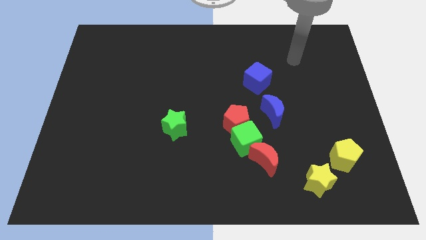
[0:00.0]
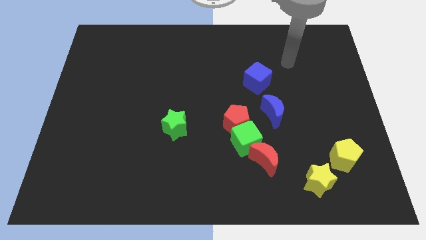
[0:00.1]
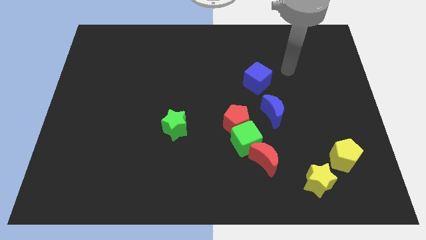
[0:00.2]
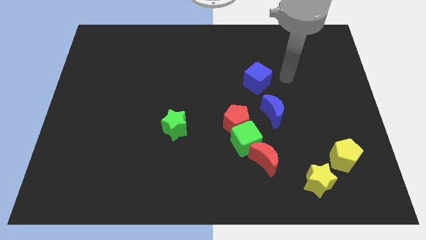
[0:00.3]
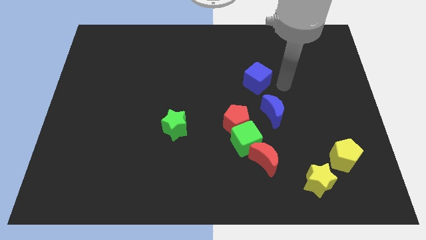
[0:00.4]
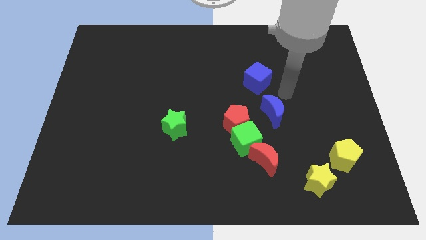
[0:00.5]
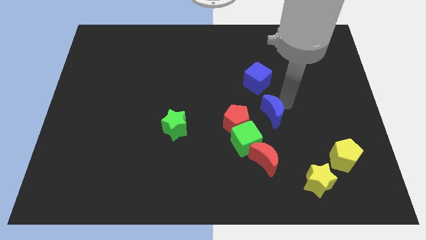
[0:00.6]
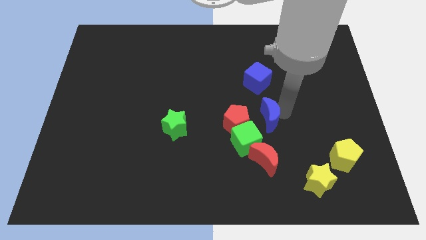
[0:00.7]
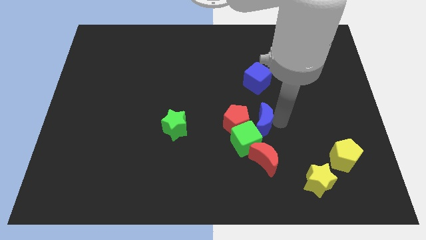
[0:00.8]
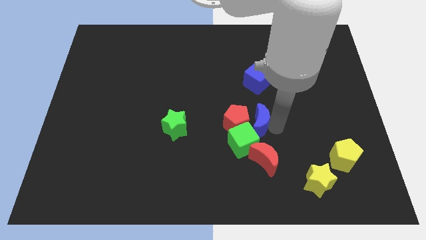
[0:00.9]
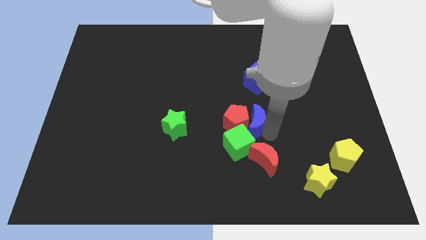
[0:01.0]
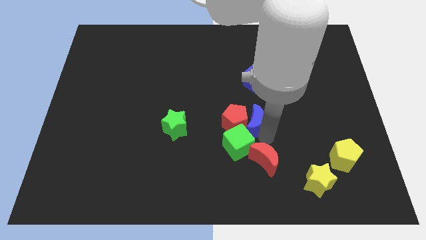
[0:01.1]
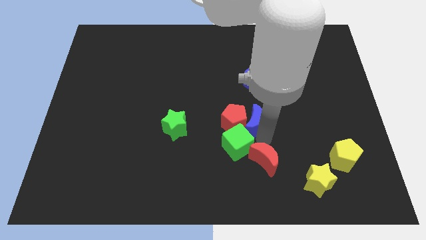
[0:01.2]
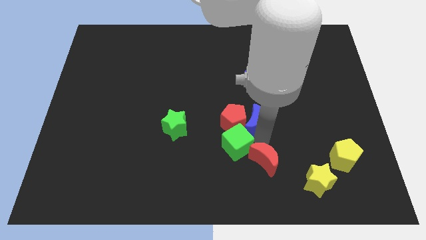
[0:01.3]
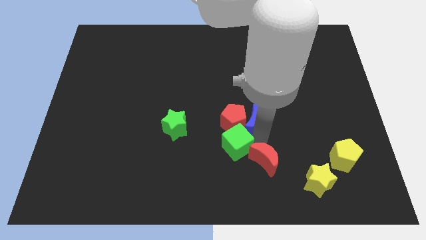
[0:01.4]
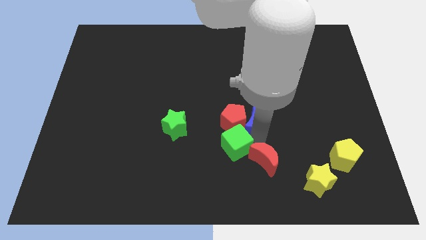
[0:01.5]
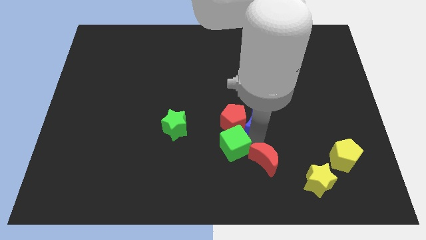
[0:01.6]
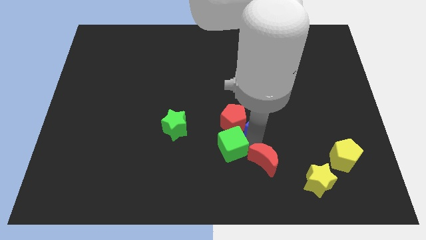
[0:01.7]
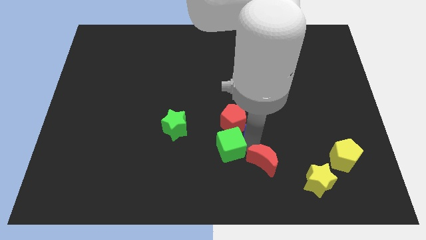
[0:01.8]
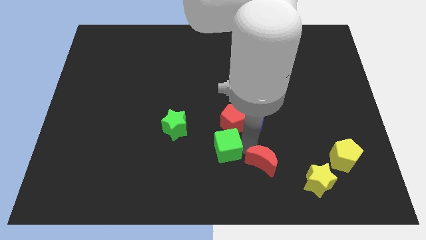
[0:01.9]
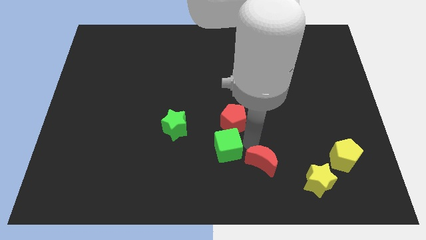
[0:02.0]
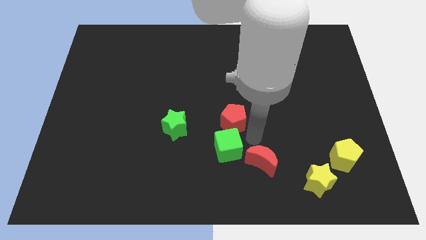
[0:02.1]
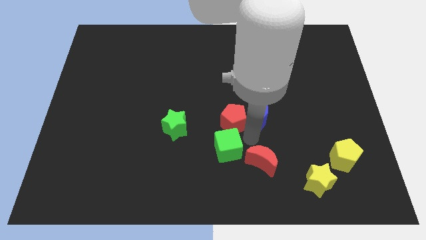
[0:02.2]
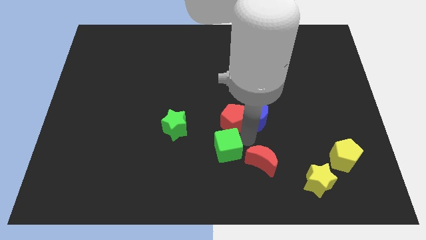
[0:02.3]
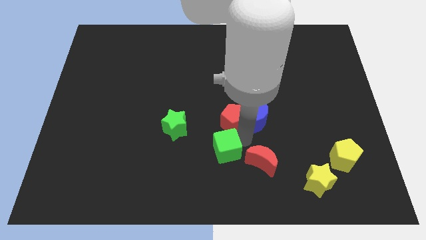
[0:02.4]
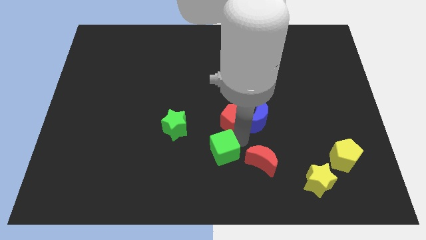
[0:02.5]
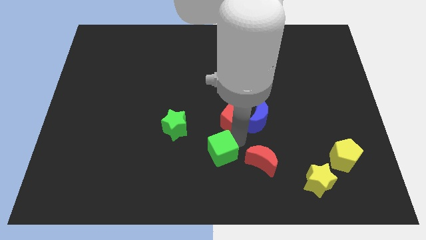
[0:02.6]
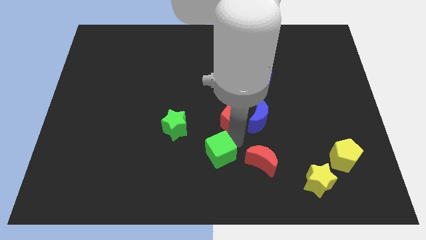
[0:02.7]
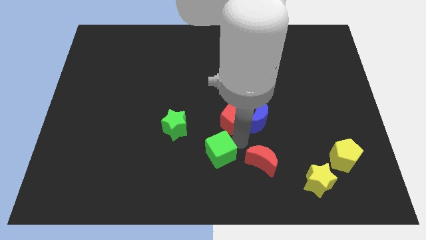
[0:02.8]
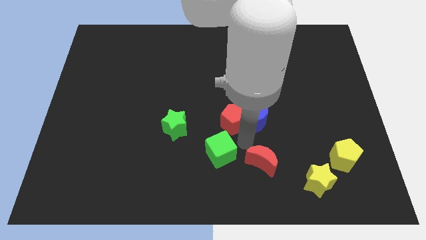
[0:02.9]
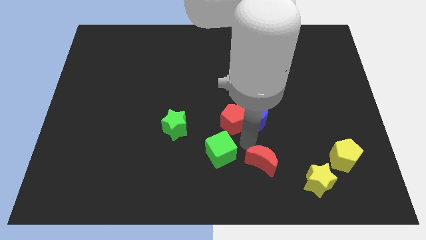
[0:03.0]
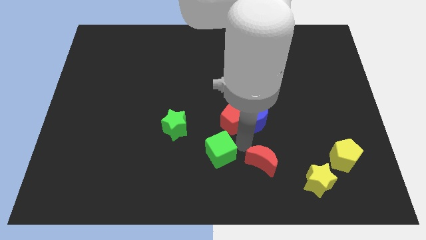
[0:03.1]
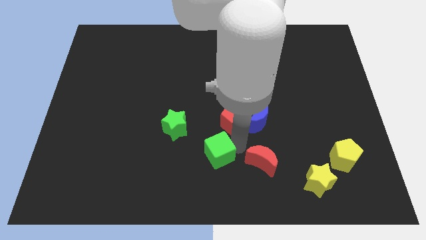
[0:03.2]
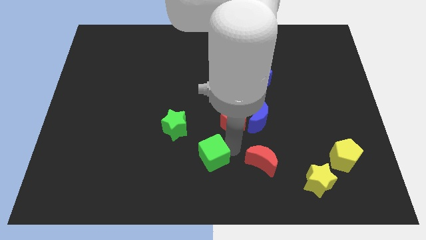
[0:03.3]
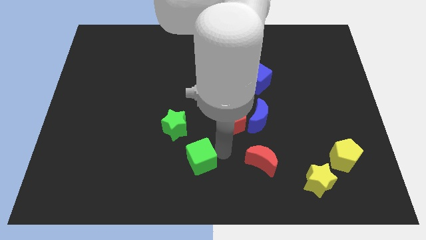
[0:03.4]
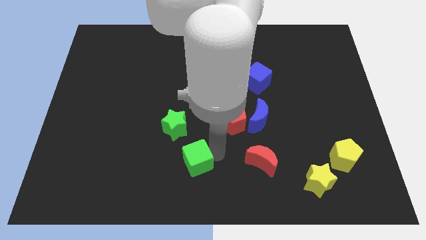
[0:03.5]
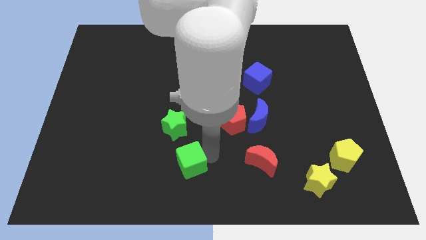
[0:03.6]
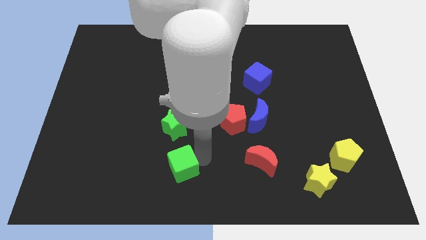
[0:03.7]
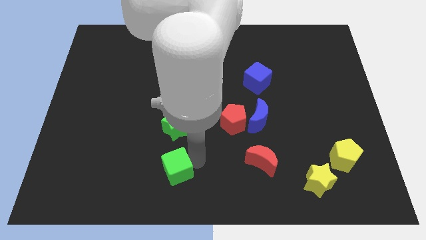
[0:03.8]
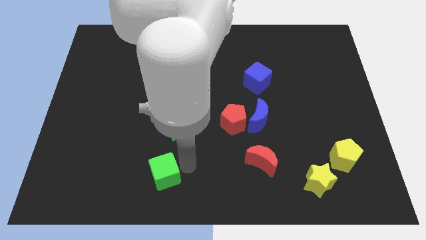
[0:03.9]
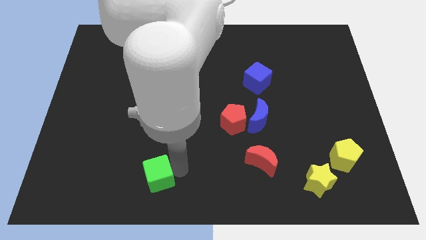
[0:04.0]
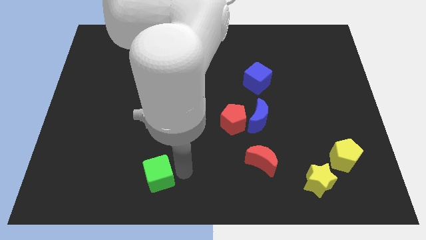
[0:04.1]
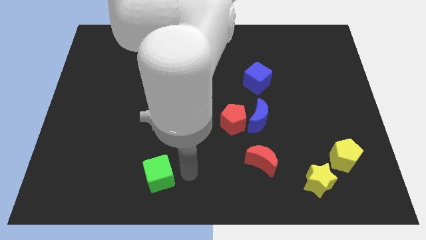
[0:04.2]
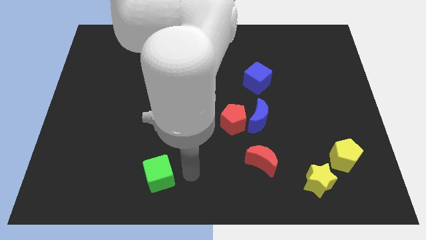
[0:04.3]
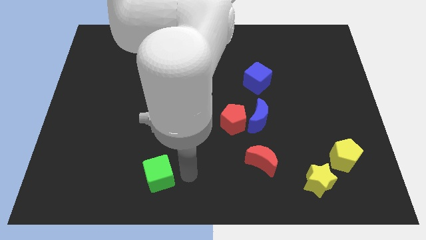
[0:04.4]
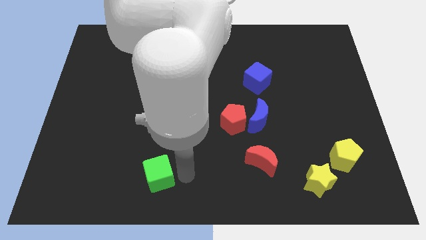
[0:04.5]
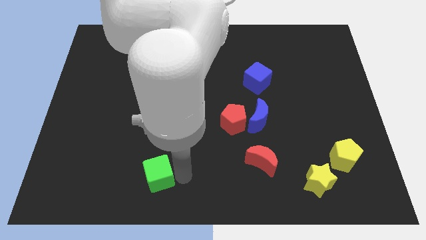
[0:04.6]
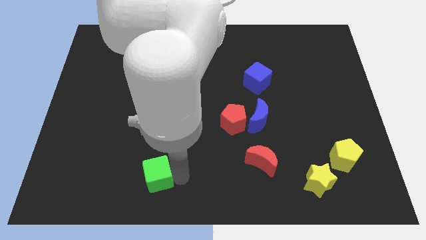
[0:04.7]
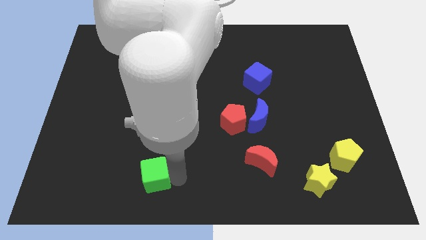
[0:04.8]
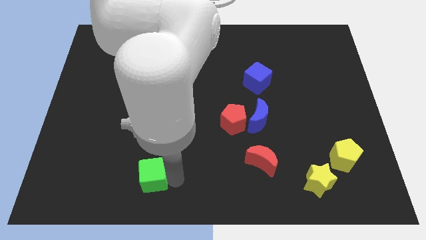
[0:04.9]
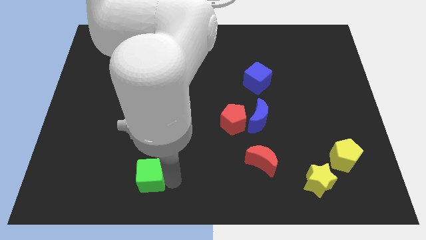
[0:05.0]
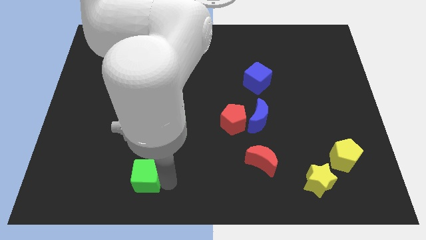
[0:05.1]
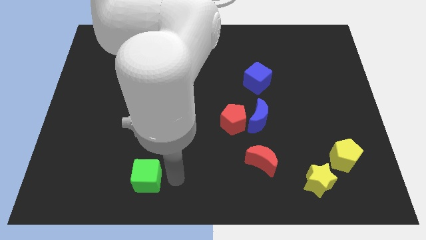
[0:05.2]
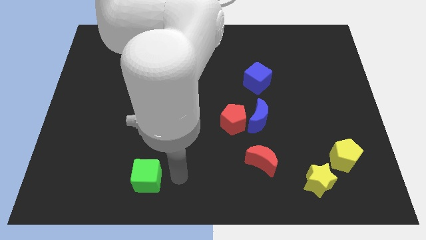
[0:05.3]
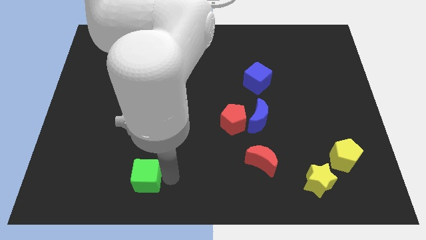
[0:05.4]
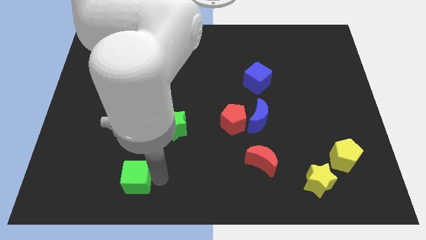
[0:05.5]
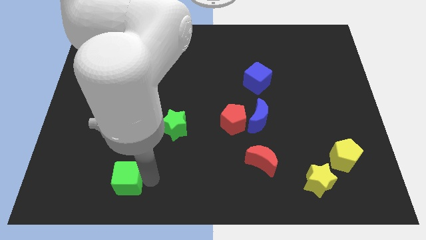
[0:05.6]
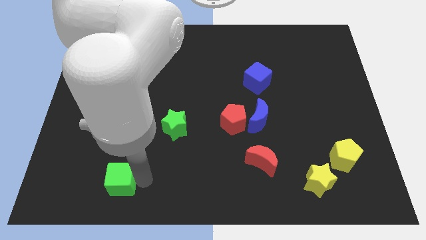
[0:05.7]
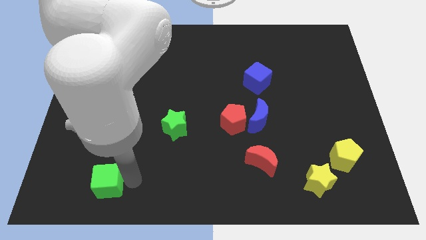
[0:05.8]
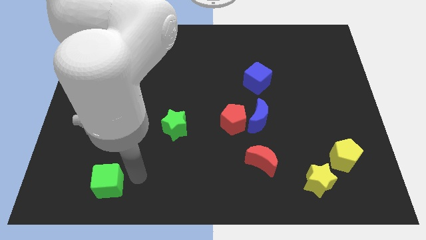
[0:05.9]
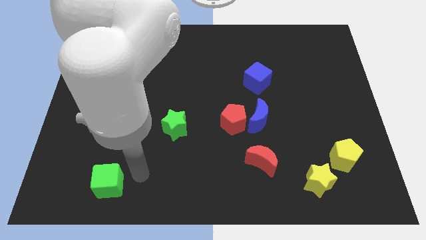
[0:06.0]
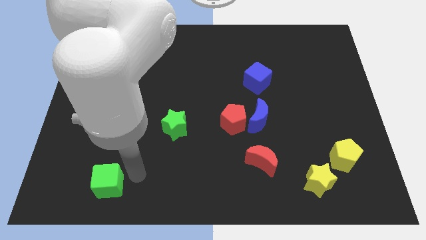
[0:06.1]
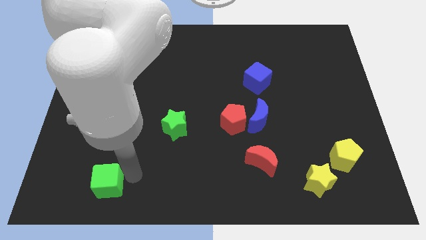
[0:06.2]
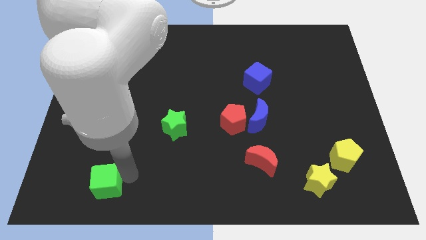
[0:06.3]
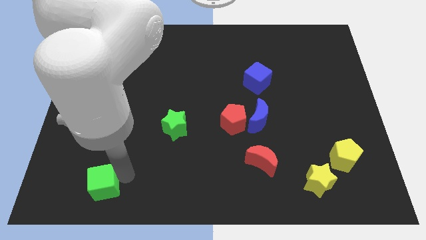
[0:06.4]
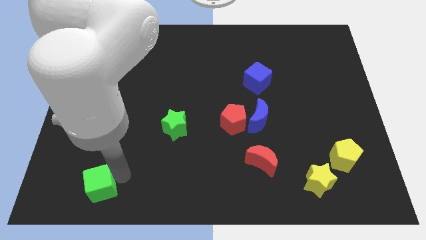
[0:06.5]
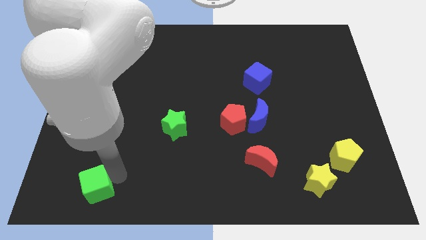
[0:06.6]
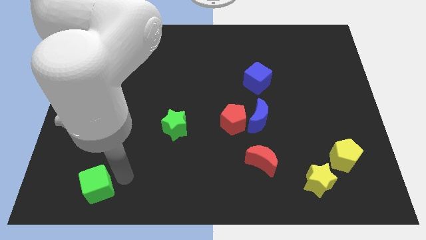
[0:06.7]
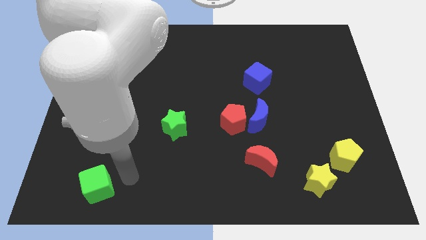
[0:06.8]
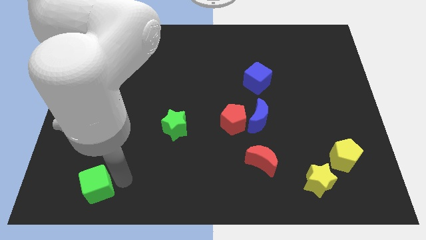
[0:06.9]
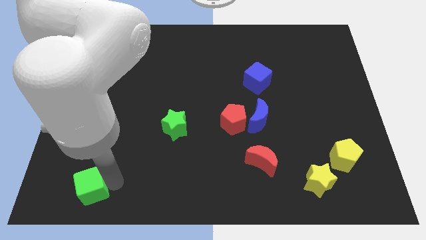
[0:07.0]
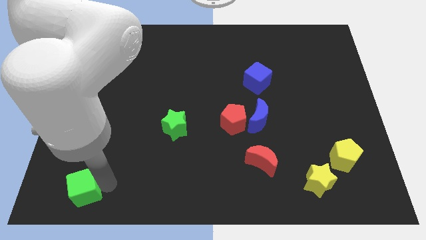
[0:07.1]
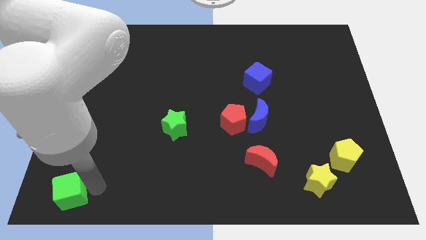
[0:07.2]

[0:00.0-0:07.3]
push the green cube to the bottom left corner
